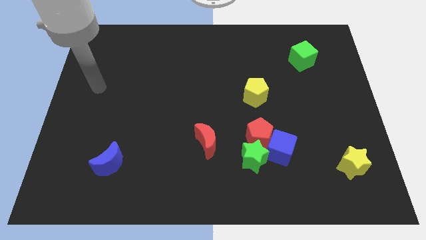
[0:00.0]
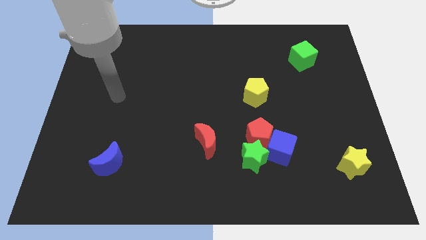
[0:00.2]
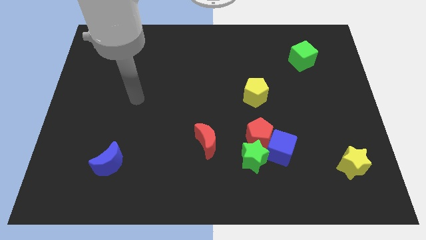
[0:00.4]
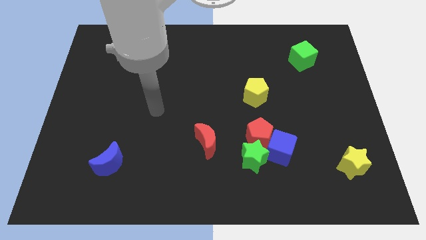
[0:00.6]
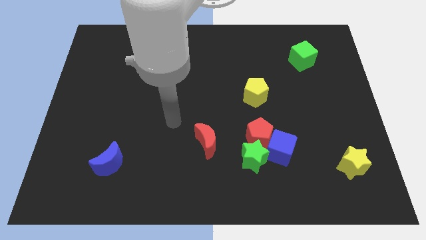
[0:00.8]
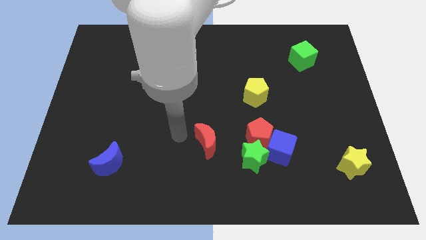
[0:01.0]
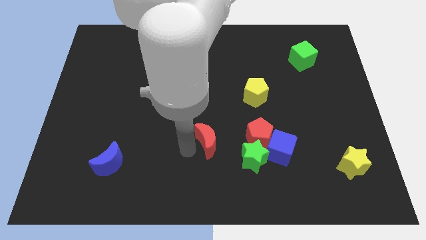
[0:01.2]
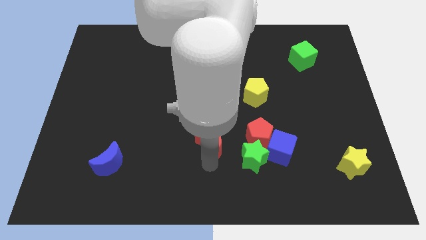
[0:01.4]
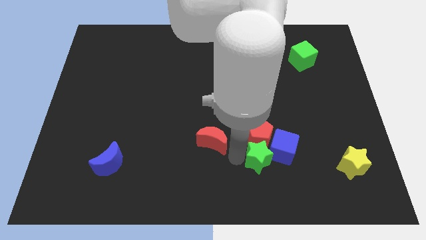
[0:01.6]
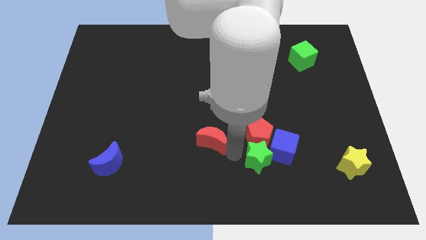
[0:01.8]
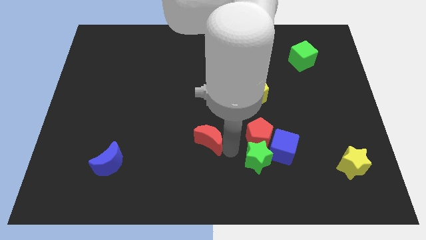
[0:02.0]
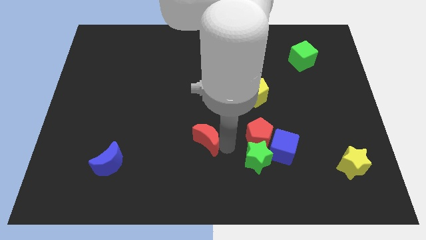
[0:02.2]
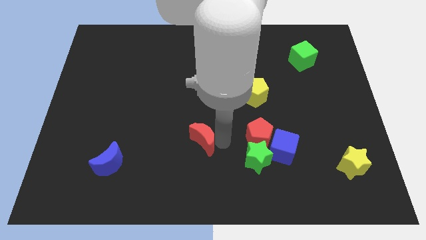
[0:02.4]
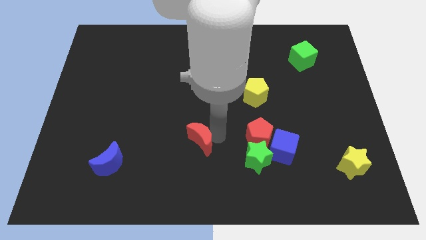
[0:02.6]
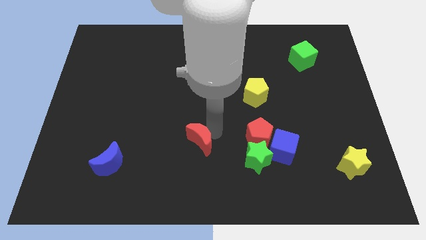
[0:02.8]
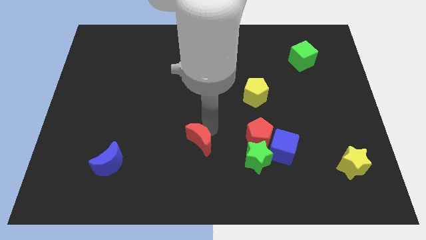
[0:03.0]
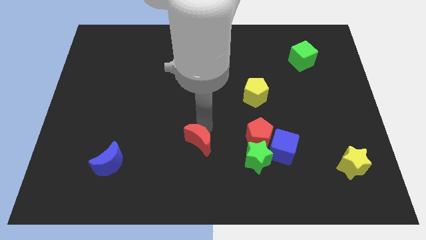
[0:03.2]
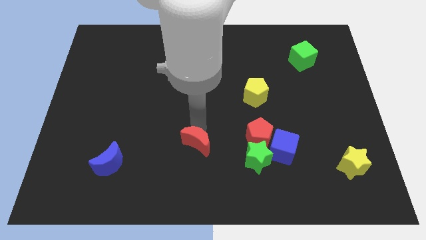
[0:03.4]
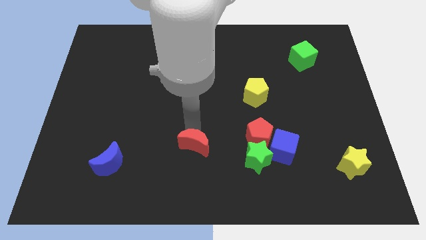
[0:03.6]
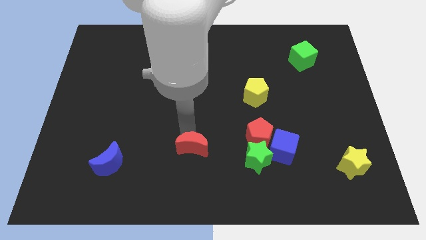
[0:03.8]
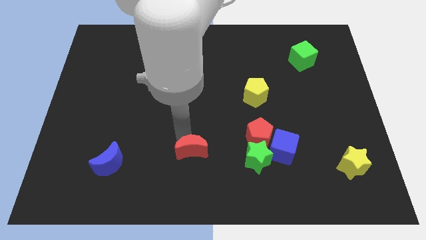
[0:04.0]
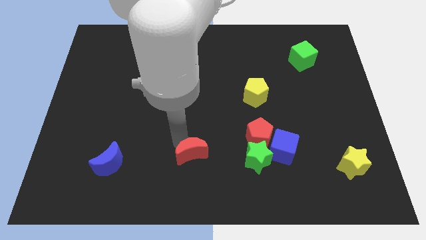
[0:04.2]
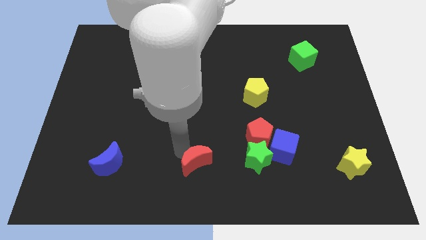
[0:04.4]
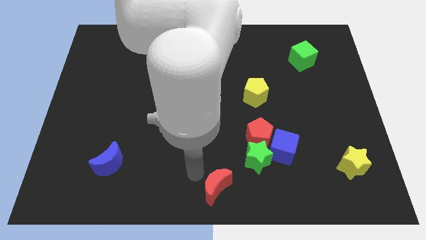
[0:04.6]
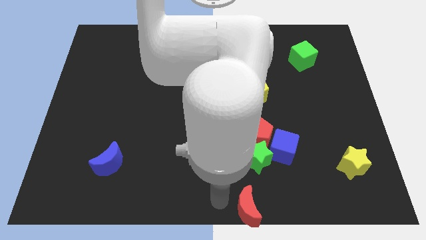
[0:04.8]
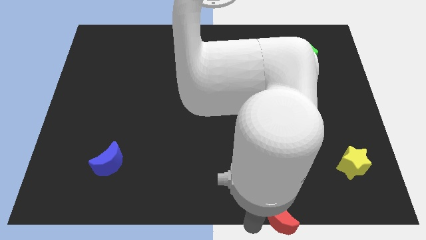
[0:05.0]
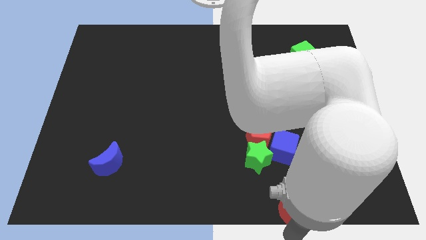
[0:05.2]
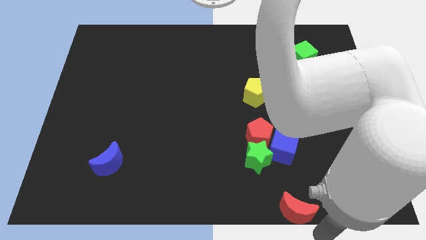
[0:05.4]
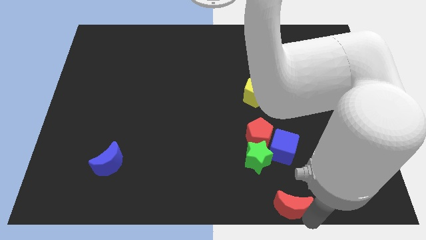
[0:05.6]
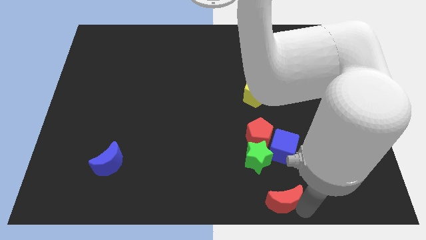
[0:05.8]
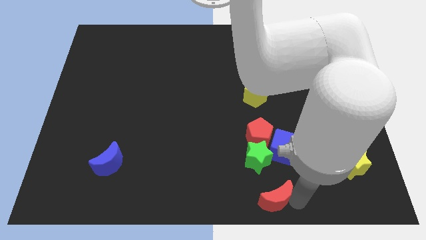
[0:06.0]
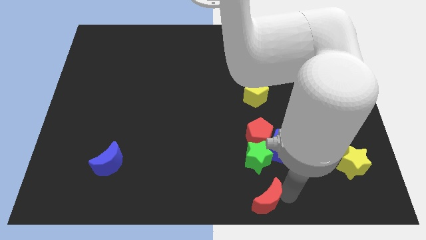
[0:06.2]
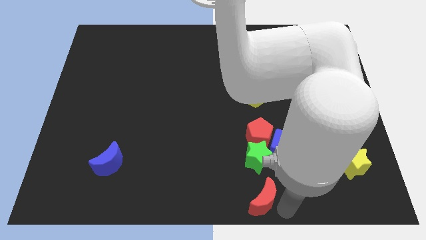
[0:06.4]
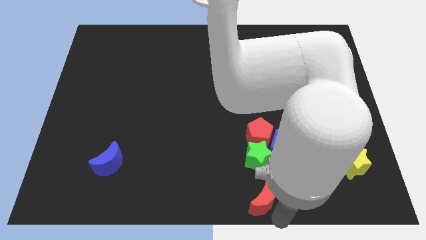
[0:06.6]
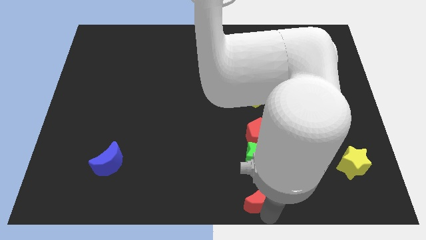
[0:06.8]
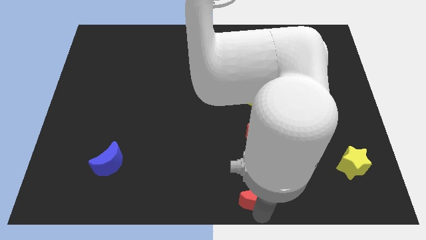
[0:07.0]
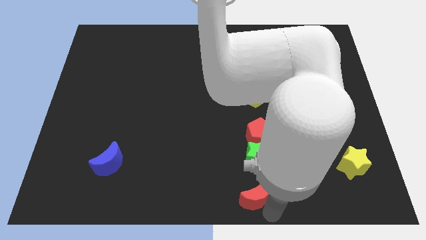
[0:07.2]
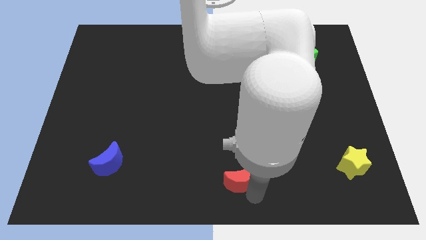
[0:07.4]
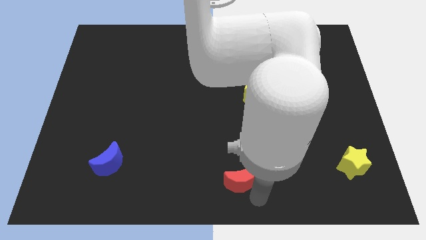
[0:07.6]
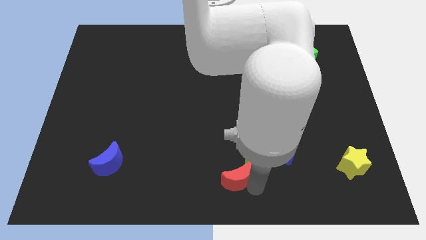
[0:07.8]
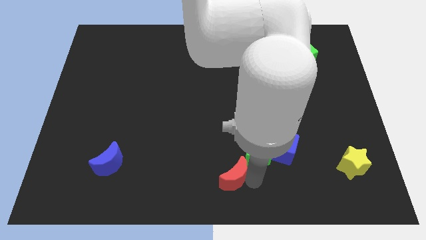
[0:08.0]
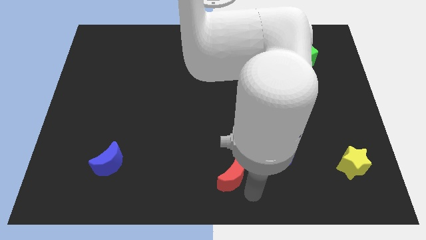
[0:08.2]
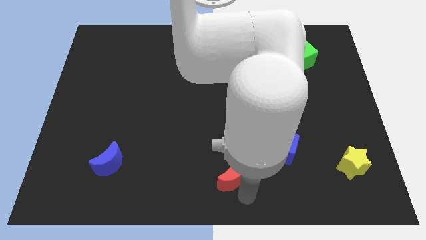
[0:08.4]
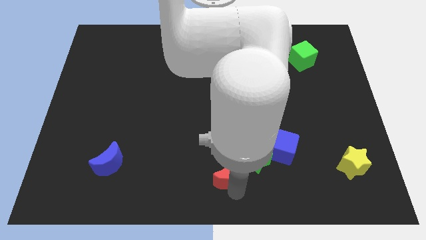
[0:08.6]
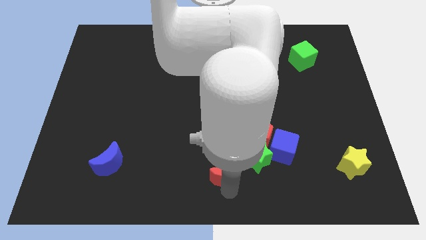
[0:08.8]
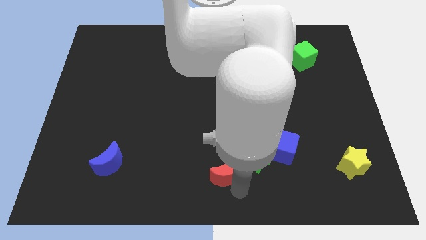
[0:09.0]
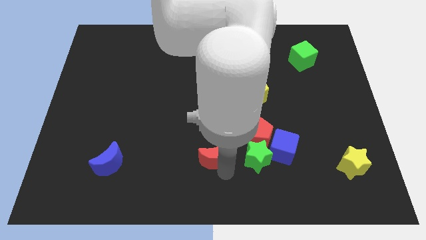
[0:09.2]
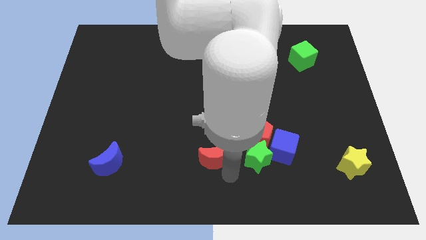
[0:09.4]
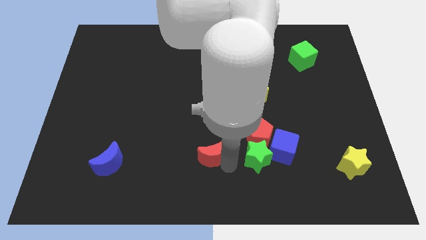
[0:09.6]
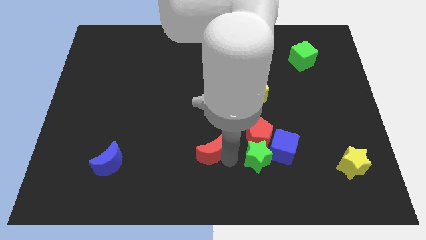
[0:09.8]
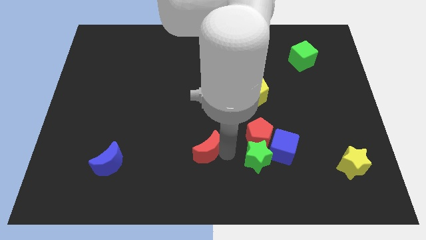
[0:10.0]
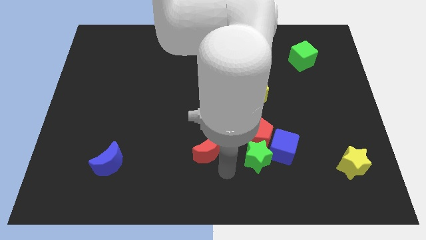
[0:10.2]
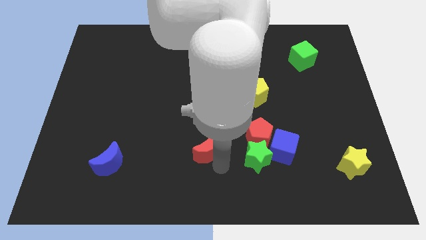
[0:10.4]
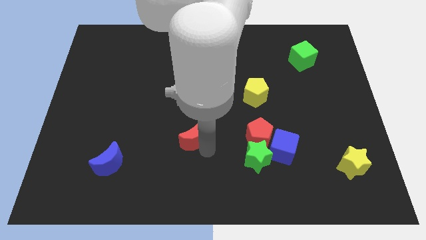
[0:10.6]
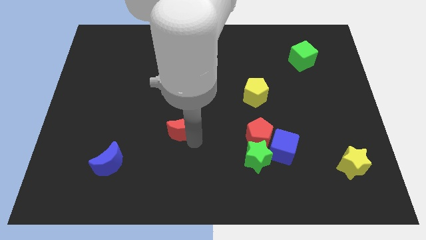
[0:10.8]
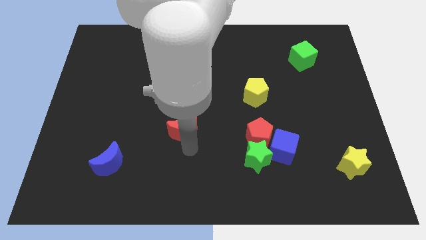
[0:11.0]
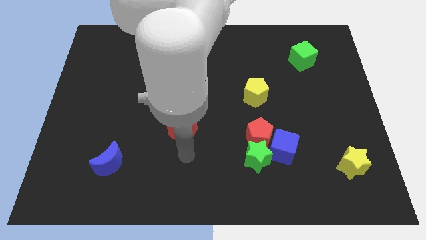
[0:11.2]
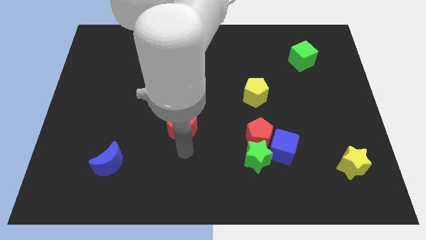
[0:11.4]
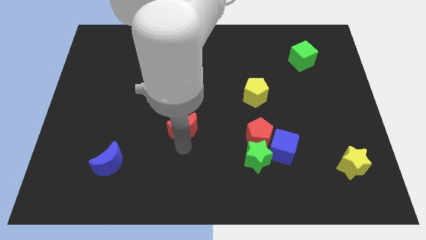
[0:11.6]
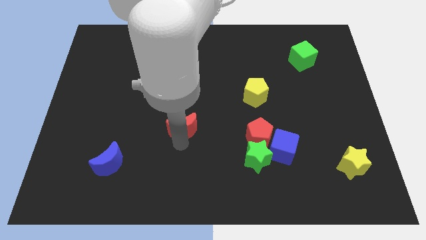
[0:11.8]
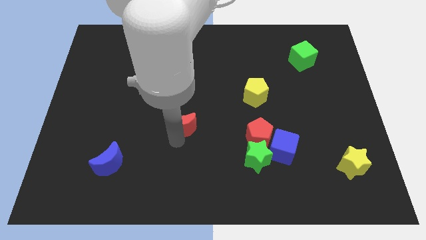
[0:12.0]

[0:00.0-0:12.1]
slide the red moon up and to the left a bit

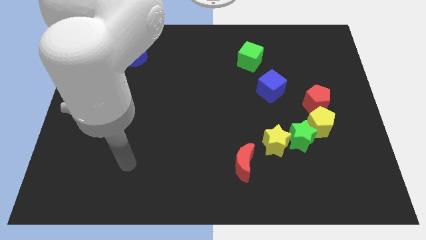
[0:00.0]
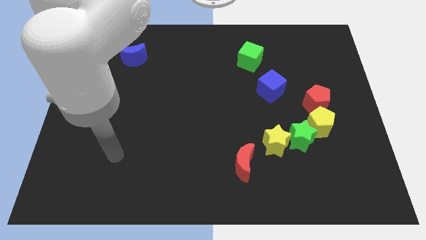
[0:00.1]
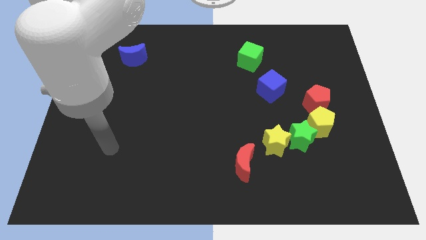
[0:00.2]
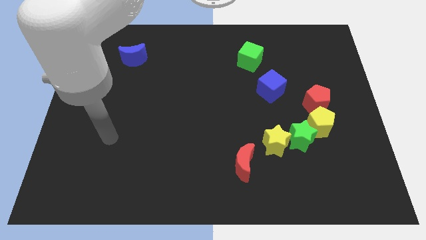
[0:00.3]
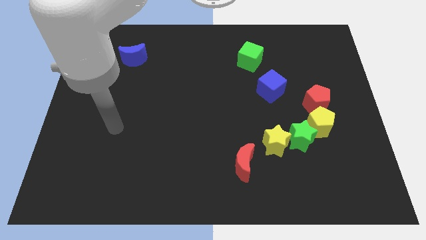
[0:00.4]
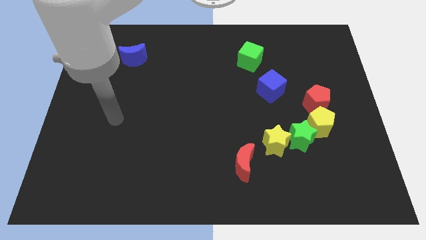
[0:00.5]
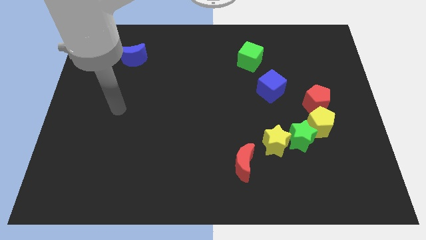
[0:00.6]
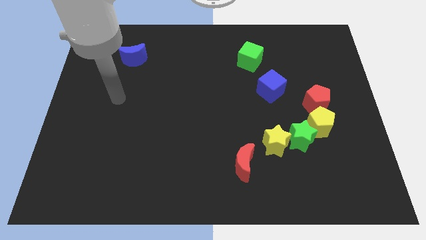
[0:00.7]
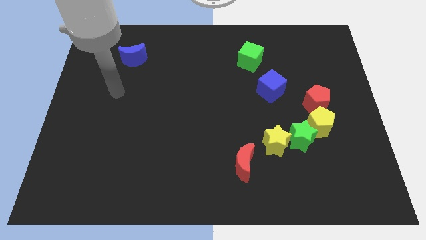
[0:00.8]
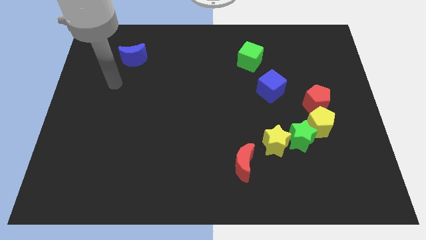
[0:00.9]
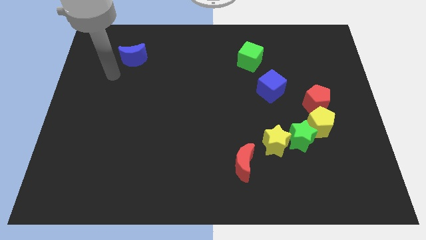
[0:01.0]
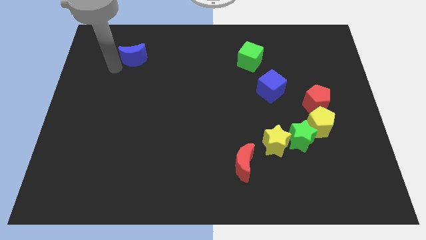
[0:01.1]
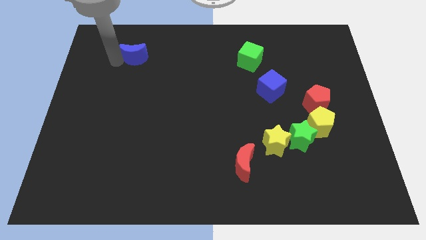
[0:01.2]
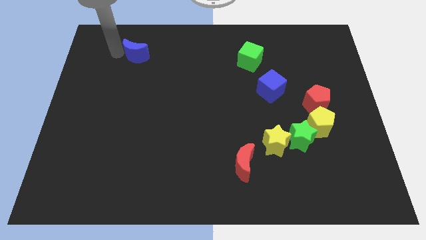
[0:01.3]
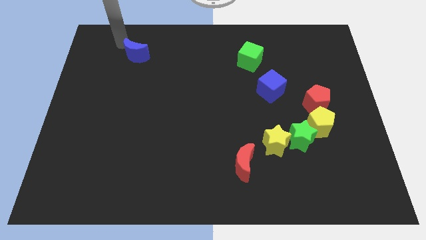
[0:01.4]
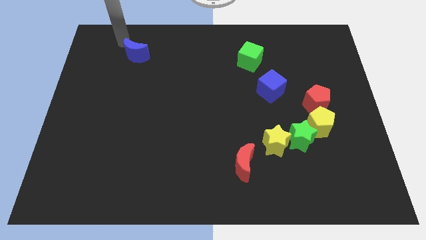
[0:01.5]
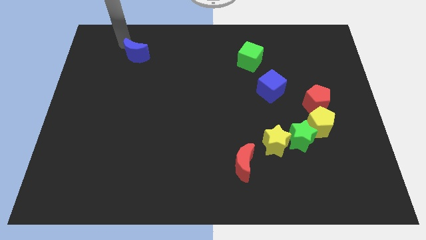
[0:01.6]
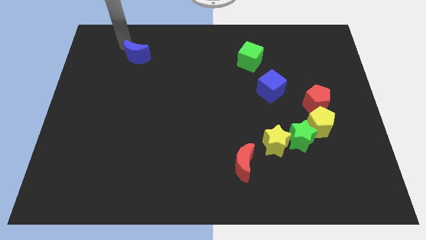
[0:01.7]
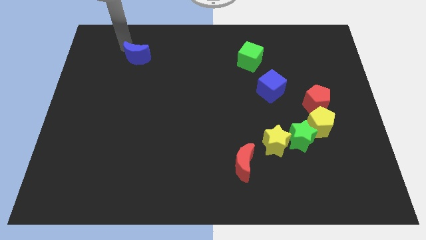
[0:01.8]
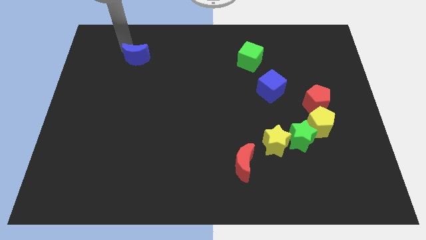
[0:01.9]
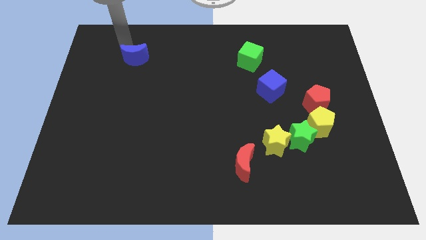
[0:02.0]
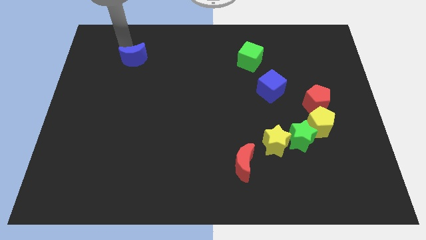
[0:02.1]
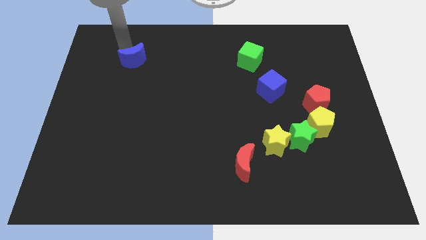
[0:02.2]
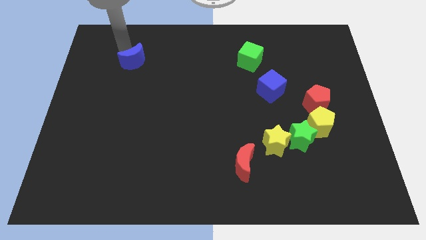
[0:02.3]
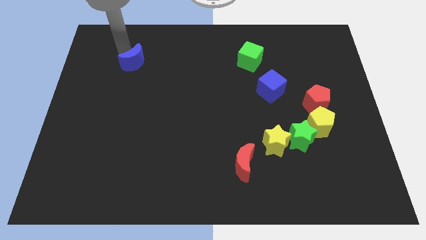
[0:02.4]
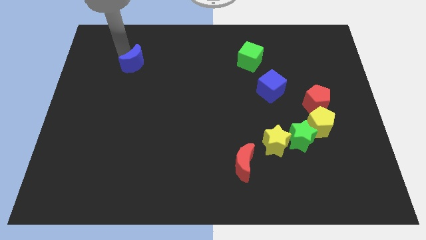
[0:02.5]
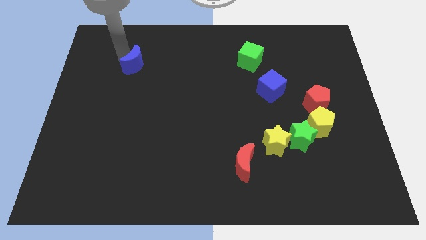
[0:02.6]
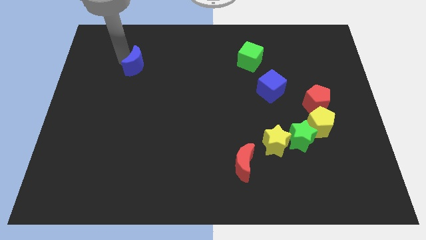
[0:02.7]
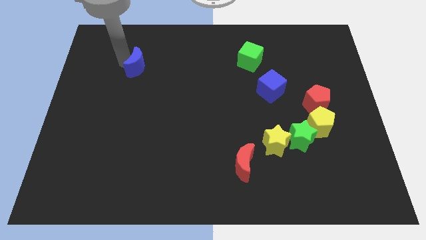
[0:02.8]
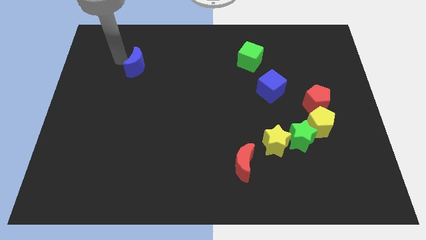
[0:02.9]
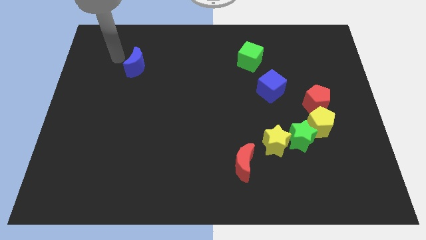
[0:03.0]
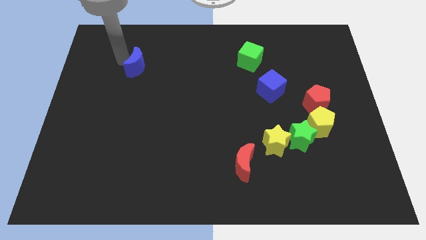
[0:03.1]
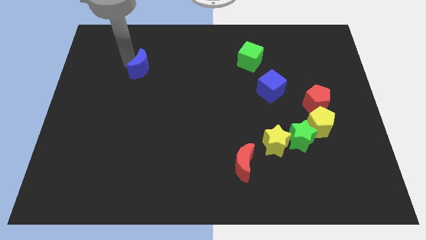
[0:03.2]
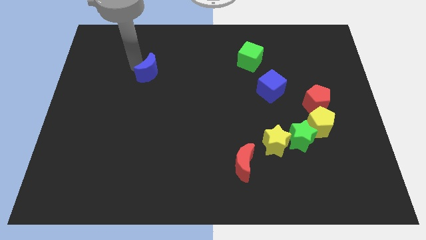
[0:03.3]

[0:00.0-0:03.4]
slightly slide the blue moon diagonally down and to the right
